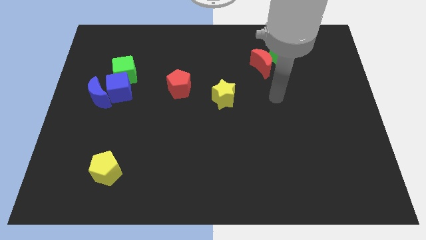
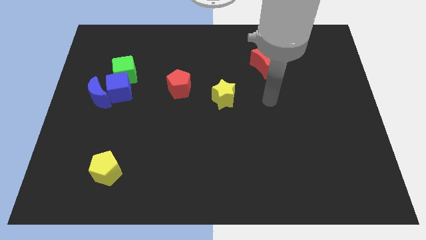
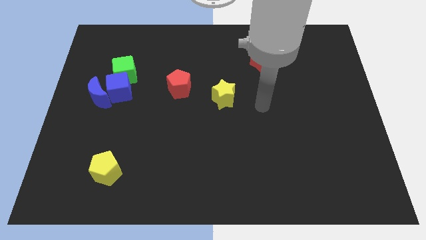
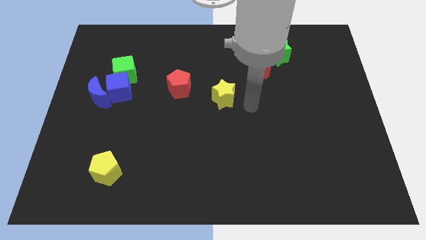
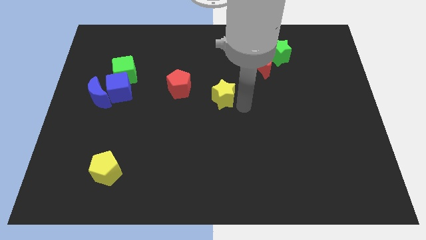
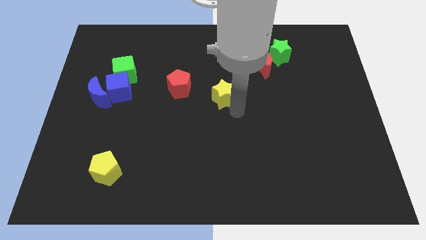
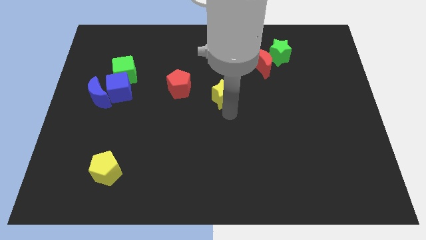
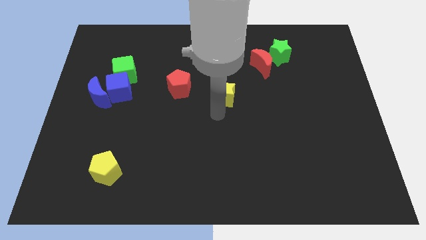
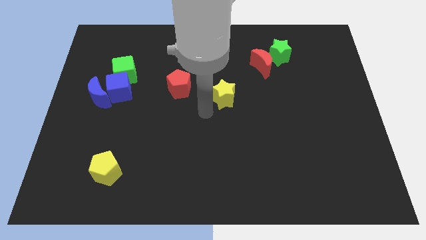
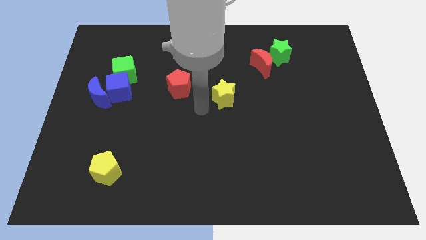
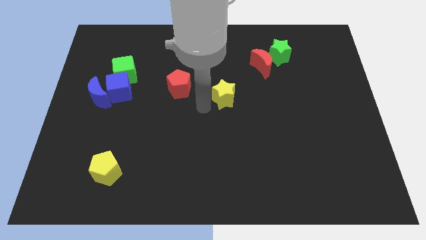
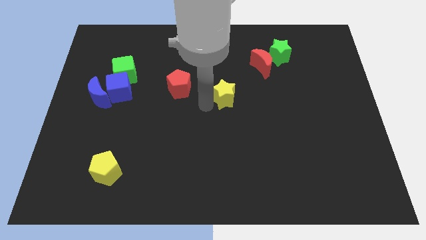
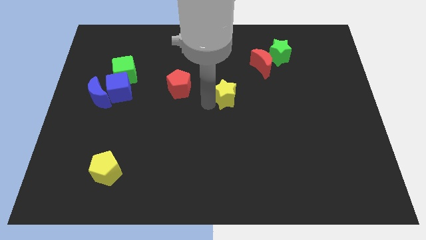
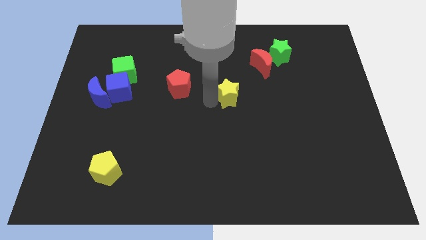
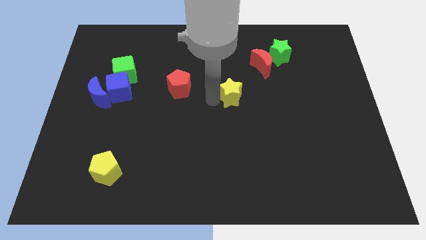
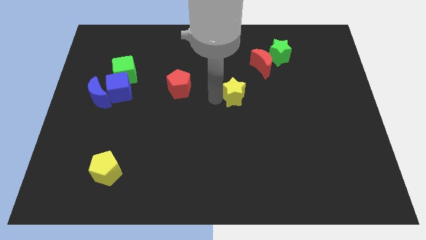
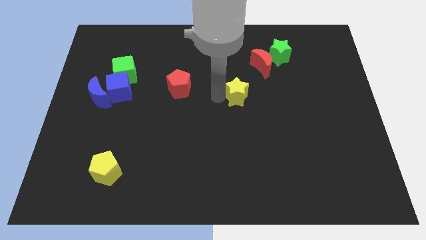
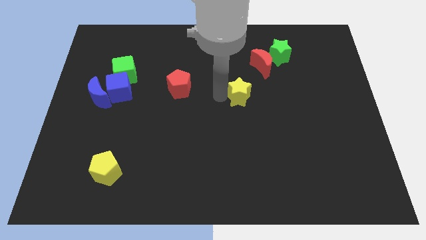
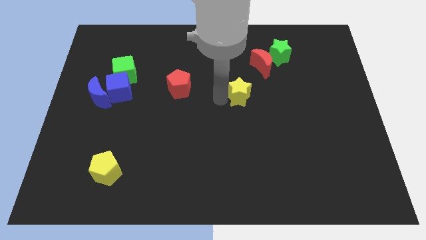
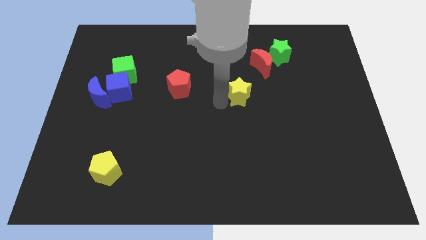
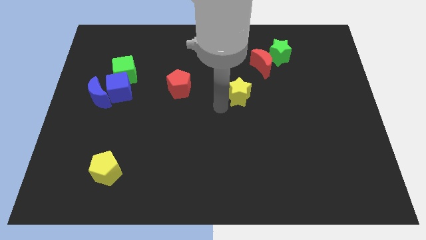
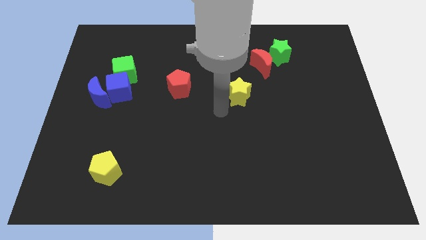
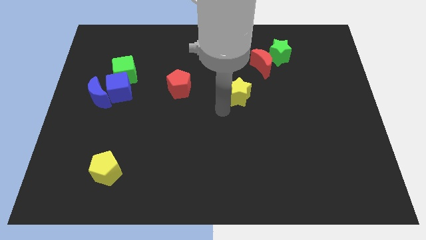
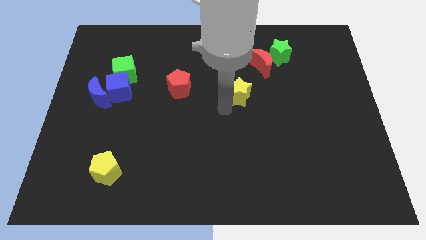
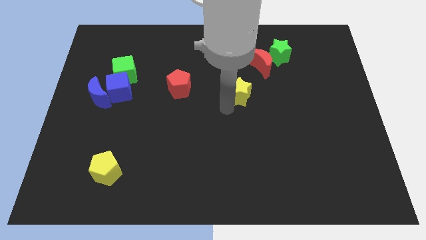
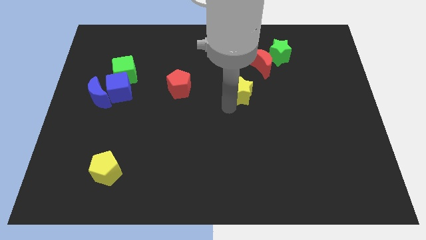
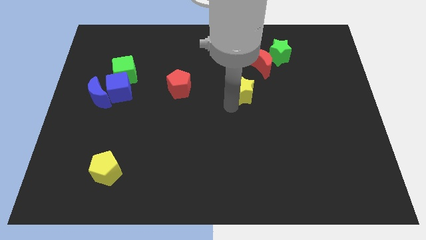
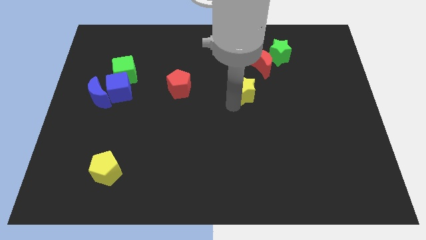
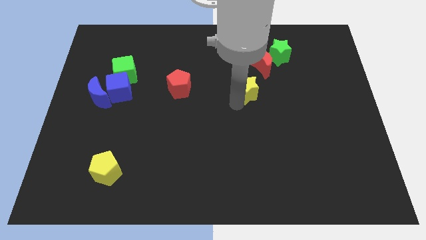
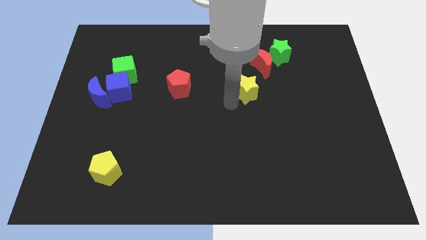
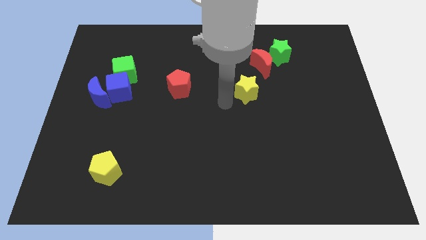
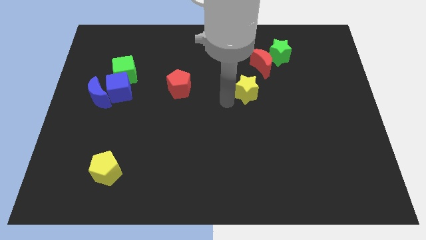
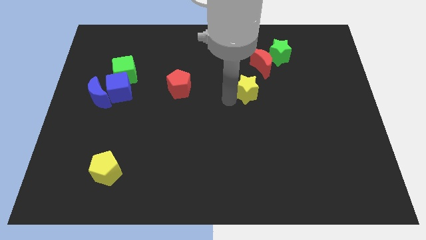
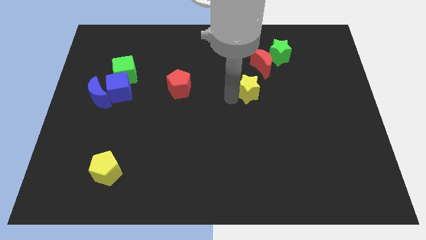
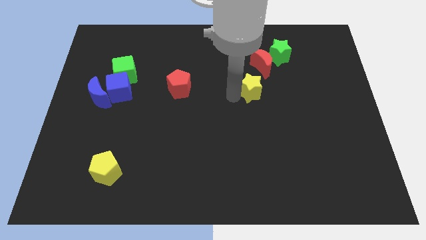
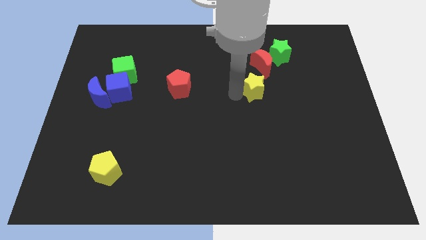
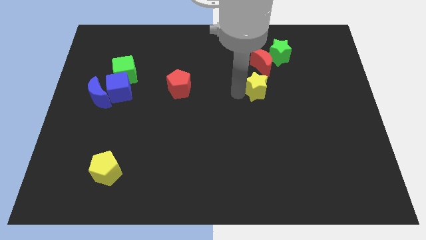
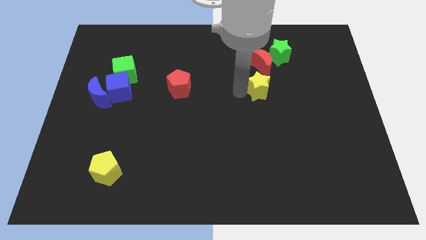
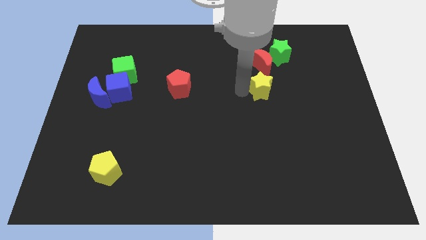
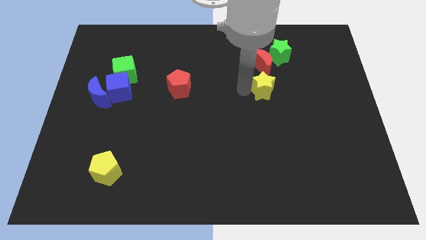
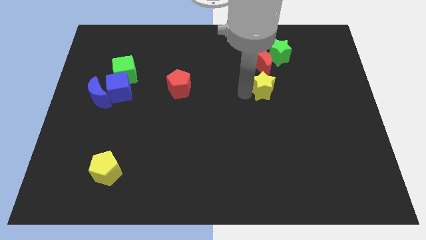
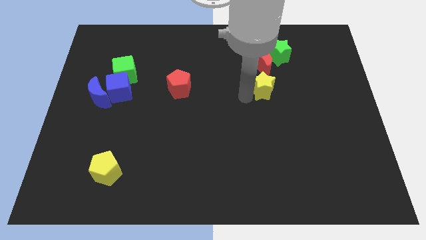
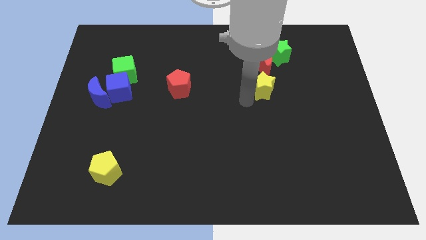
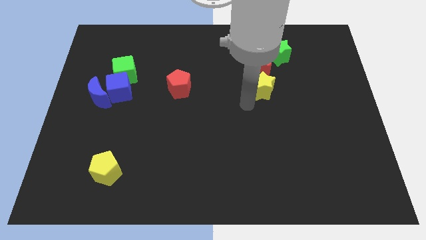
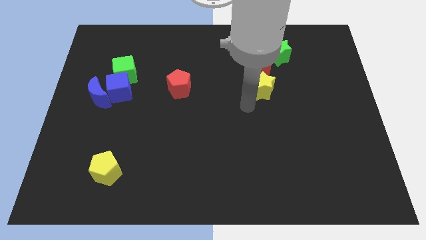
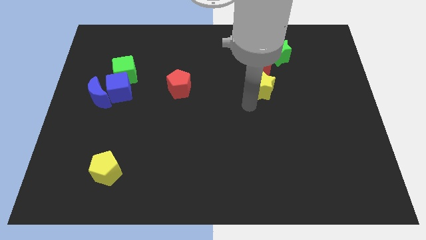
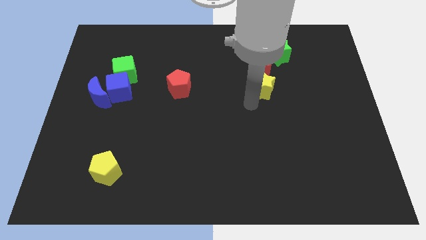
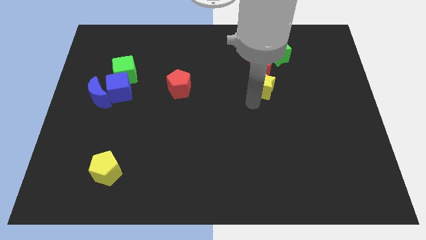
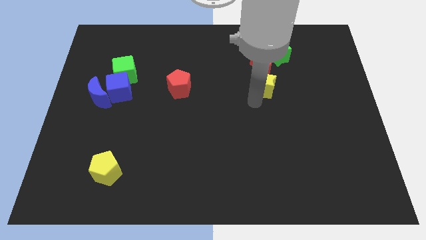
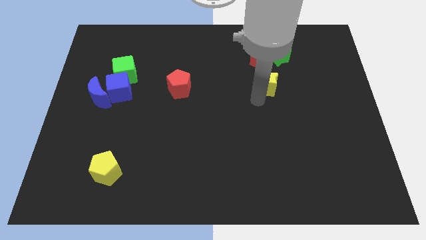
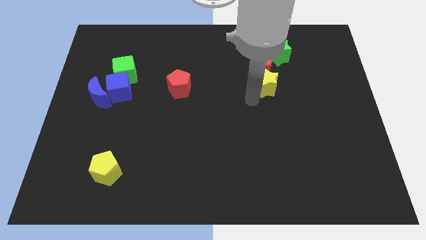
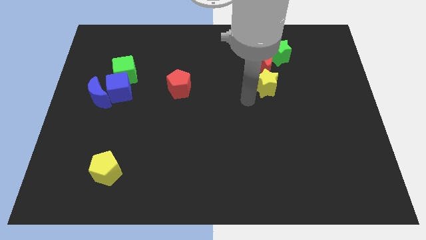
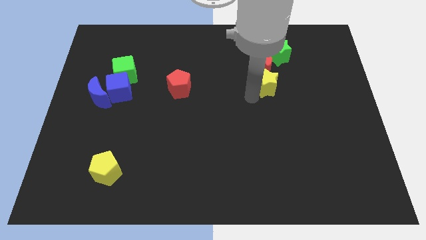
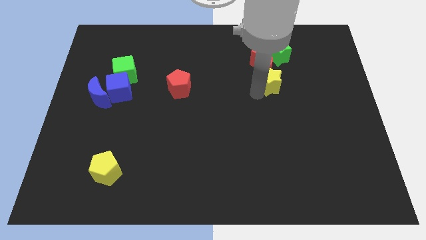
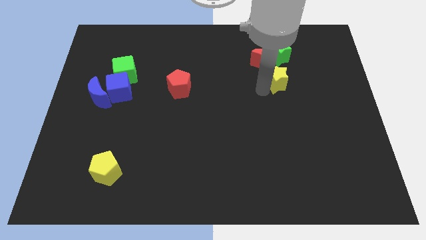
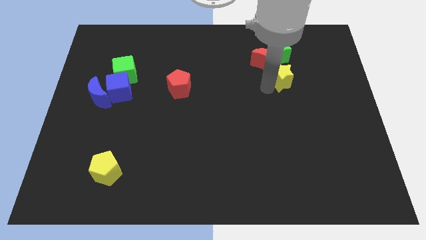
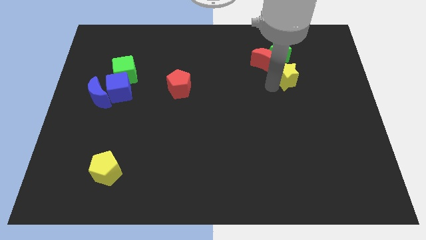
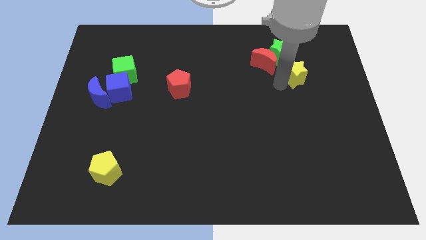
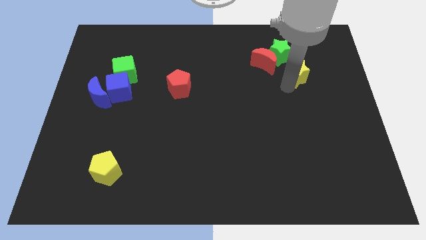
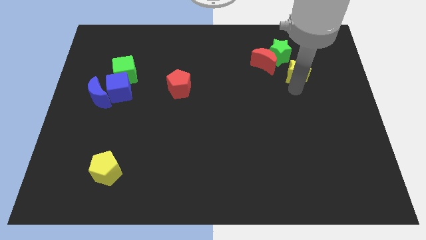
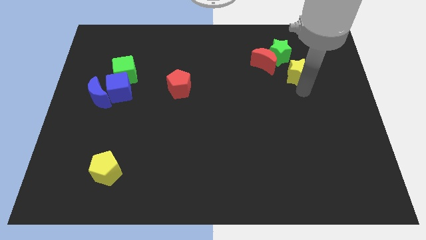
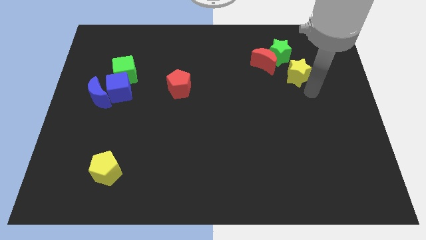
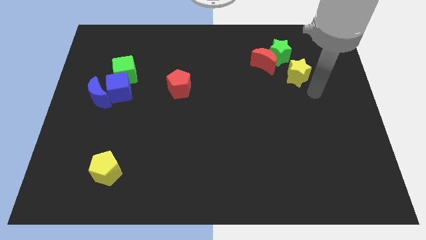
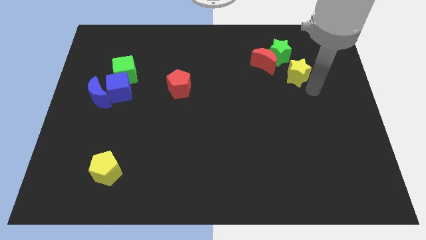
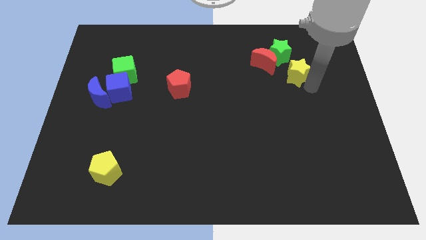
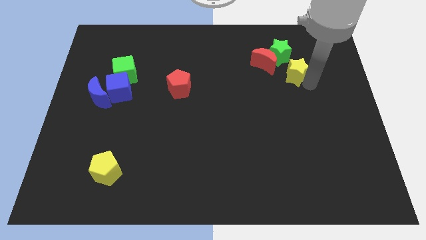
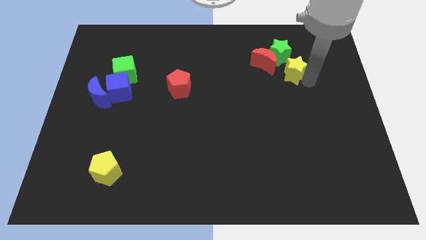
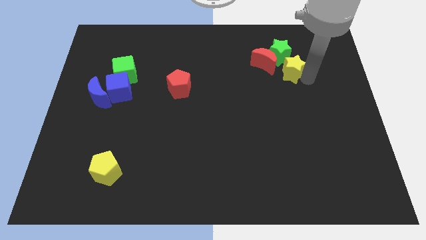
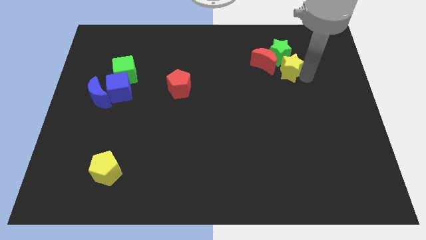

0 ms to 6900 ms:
move the yellow star close to the green star
